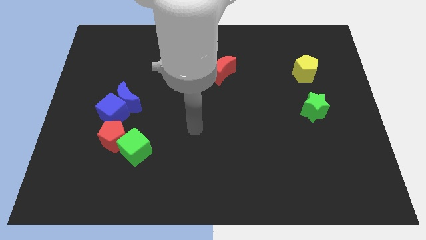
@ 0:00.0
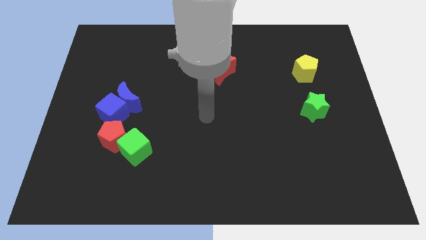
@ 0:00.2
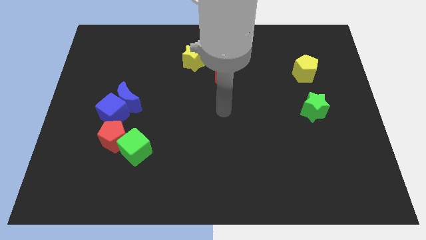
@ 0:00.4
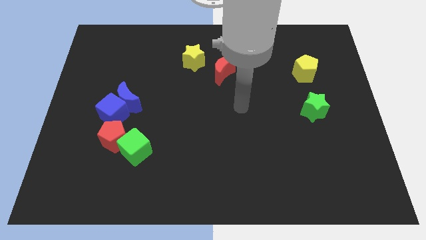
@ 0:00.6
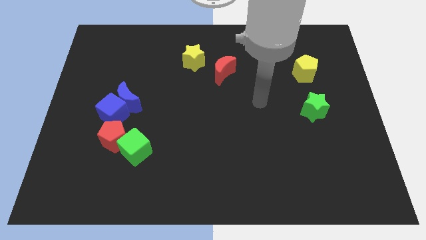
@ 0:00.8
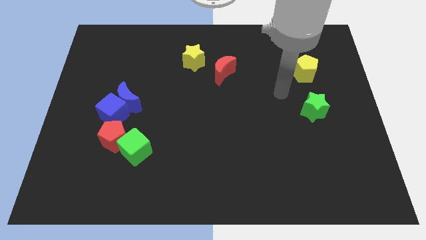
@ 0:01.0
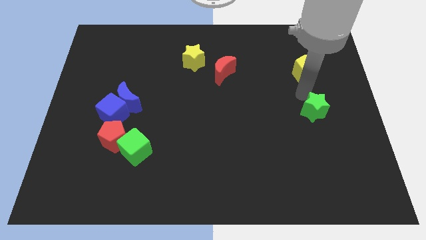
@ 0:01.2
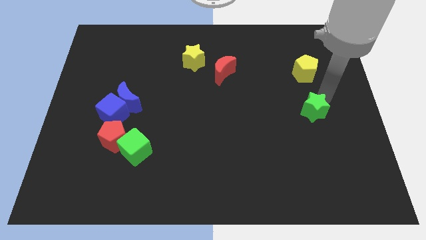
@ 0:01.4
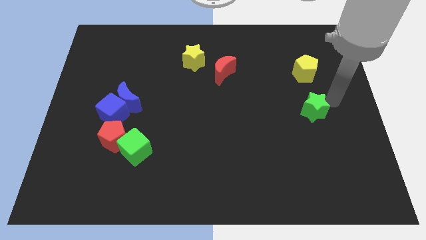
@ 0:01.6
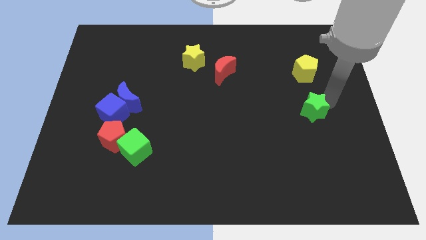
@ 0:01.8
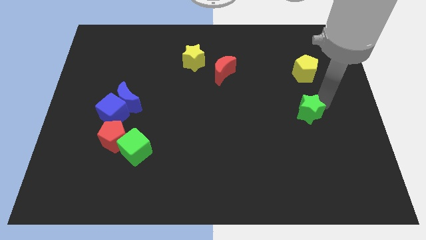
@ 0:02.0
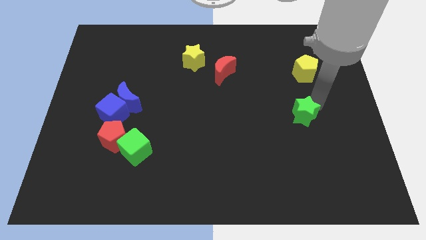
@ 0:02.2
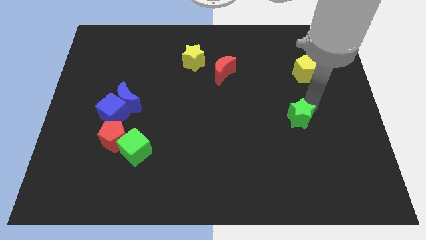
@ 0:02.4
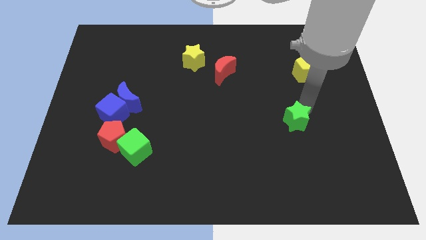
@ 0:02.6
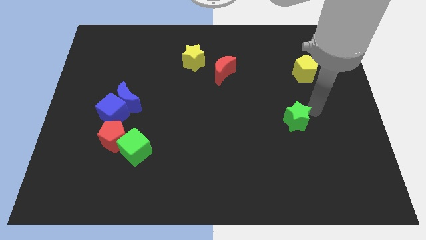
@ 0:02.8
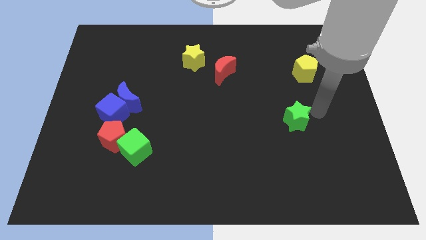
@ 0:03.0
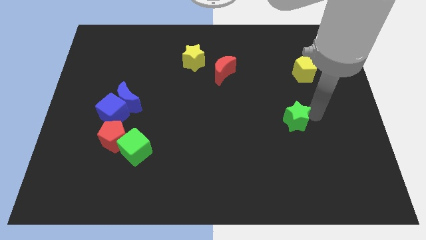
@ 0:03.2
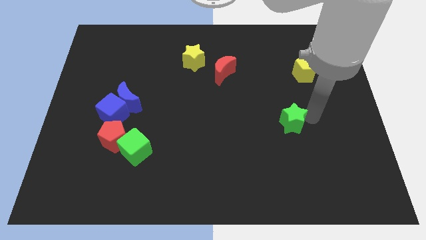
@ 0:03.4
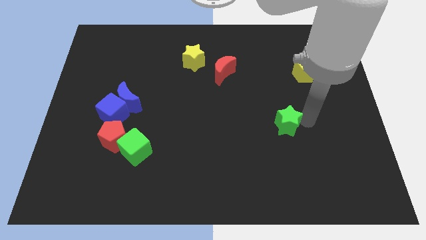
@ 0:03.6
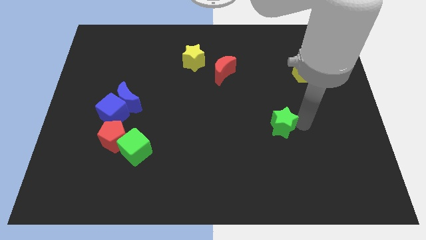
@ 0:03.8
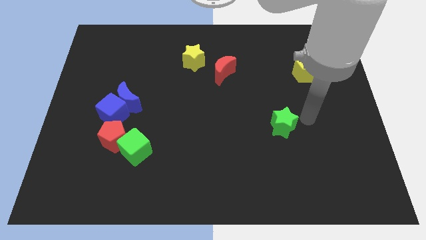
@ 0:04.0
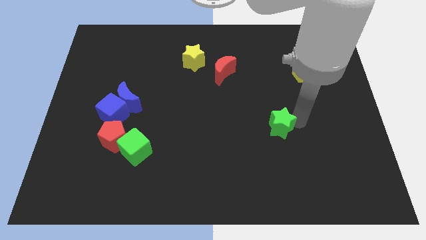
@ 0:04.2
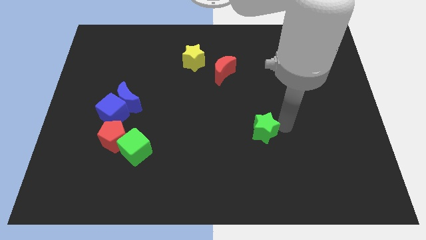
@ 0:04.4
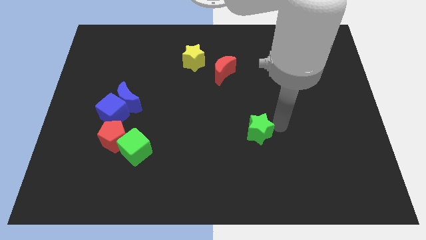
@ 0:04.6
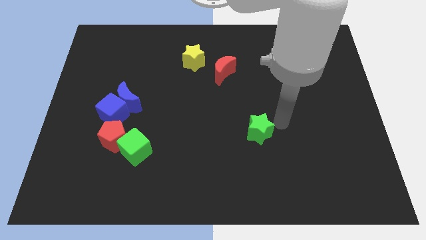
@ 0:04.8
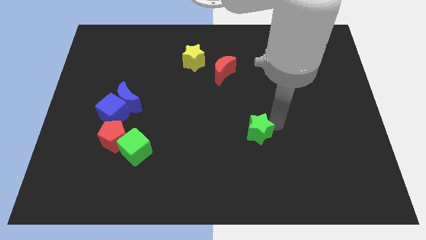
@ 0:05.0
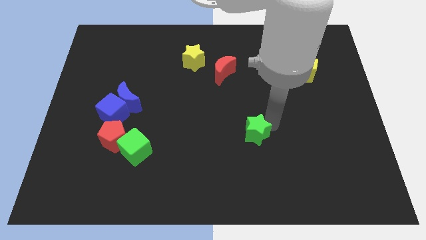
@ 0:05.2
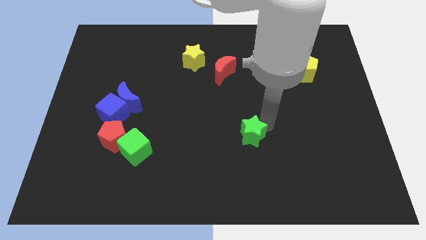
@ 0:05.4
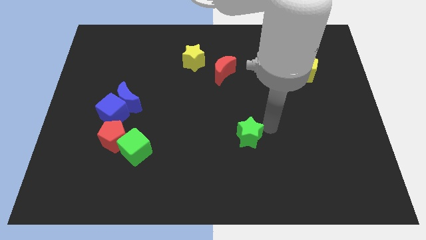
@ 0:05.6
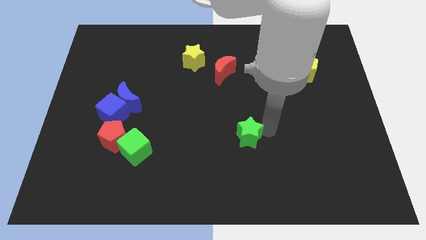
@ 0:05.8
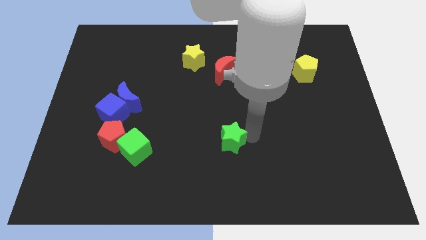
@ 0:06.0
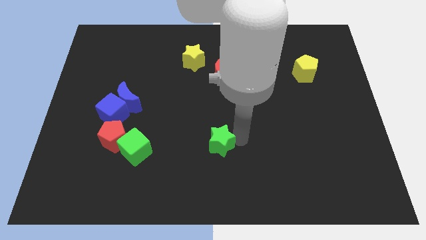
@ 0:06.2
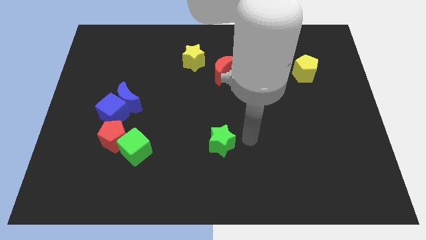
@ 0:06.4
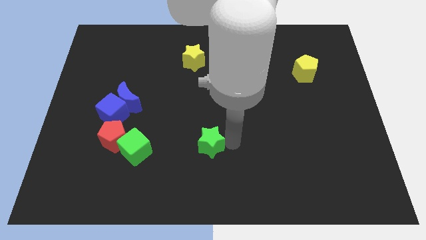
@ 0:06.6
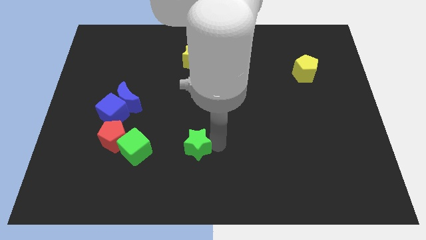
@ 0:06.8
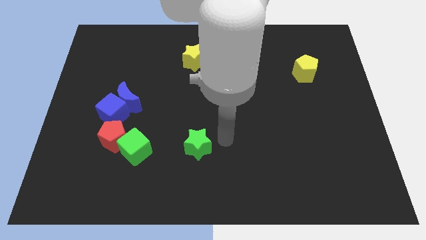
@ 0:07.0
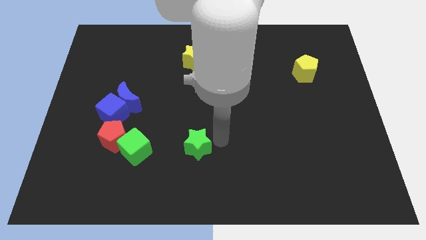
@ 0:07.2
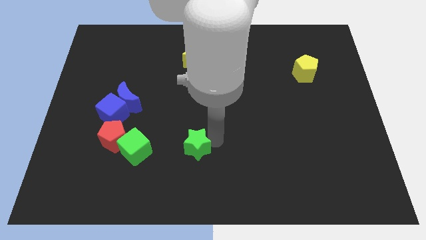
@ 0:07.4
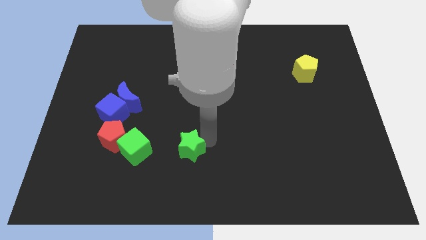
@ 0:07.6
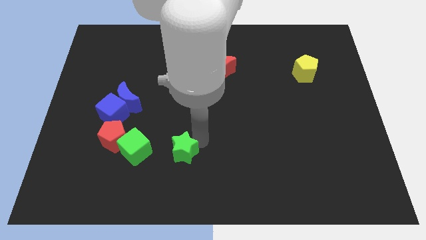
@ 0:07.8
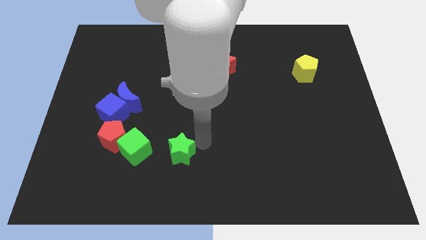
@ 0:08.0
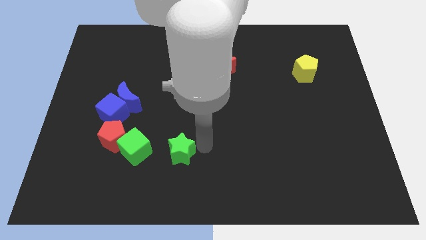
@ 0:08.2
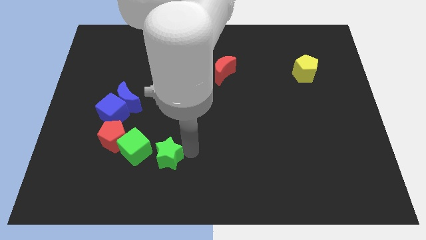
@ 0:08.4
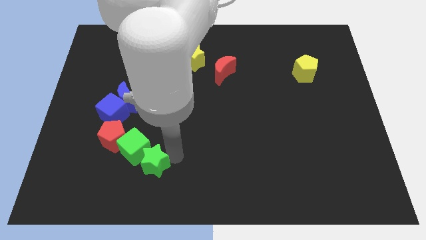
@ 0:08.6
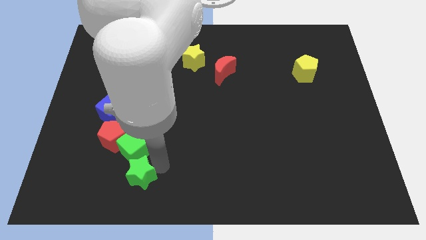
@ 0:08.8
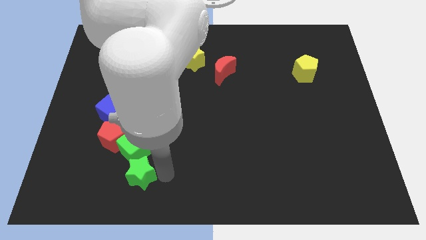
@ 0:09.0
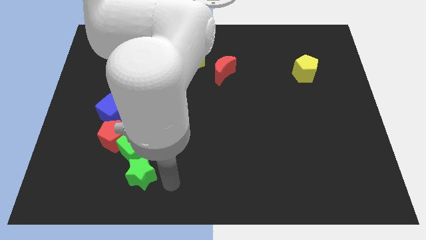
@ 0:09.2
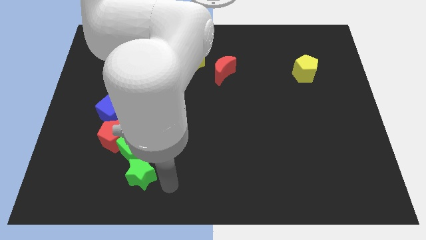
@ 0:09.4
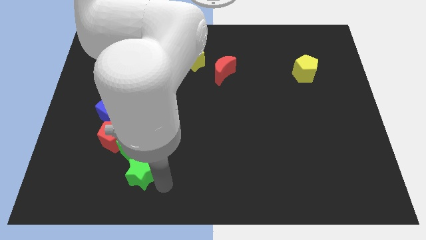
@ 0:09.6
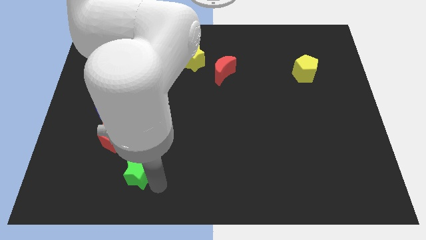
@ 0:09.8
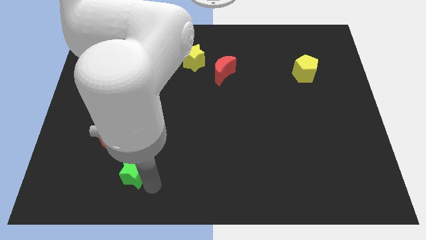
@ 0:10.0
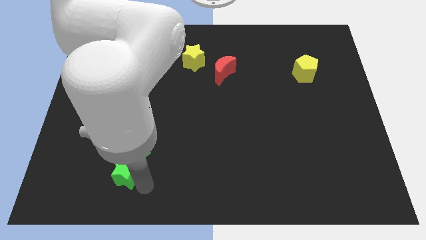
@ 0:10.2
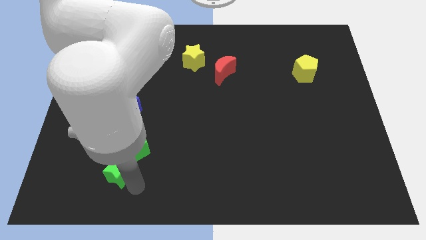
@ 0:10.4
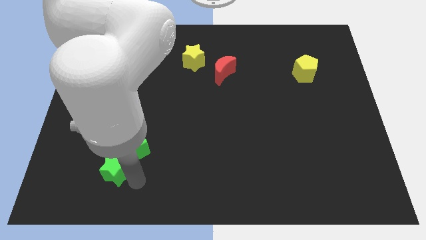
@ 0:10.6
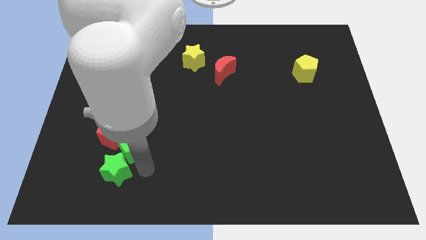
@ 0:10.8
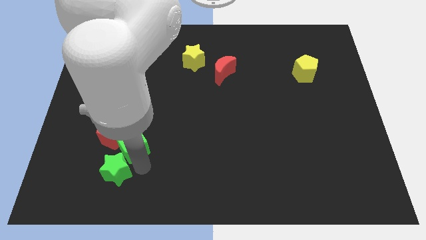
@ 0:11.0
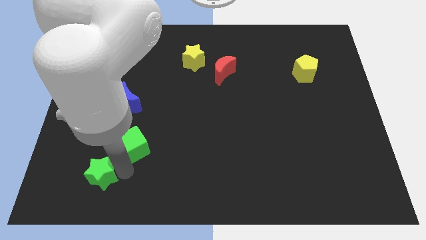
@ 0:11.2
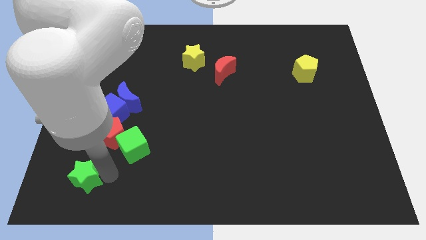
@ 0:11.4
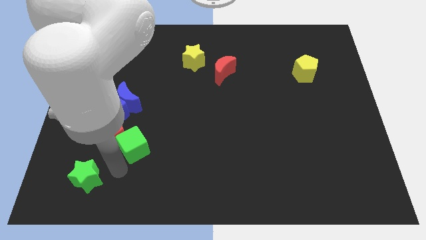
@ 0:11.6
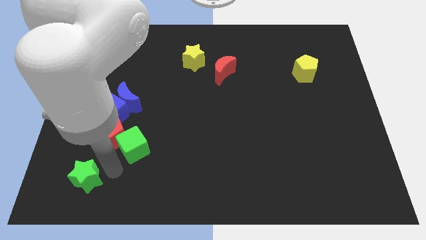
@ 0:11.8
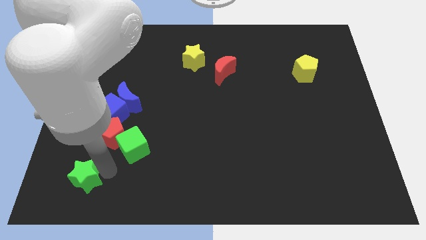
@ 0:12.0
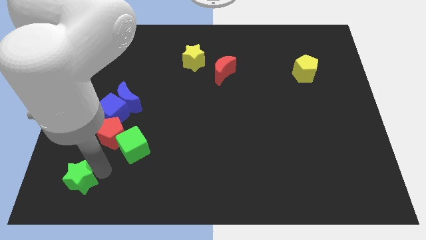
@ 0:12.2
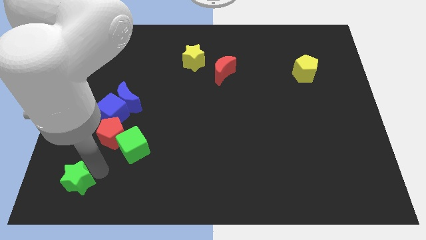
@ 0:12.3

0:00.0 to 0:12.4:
put the green star to the bottom left of the board
